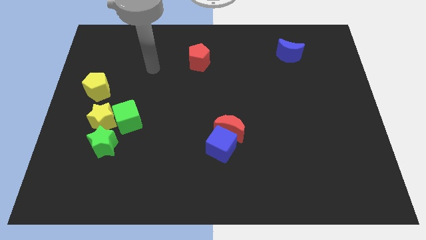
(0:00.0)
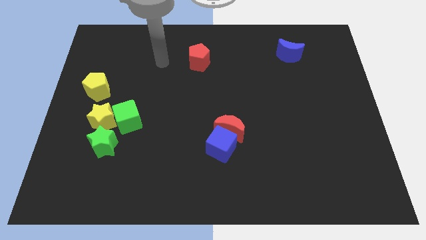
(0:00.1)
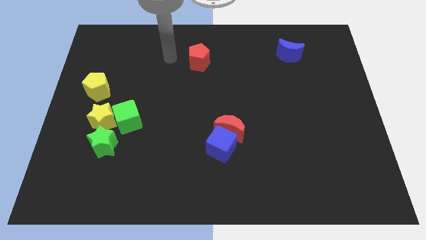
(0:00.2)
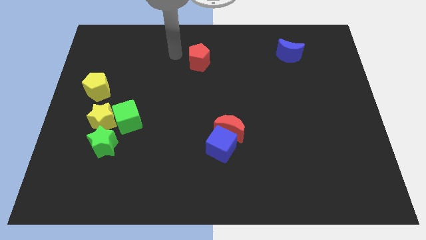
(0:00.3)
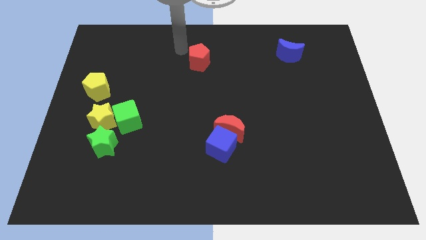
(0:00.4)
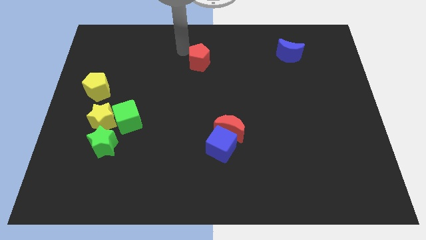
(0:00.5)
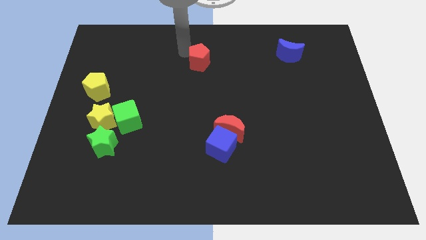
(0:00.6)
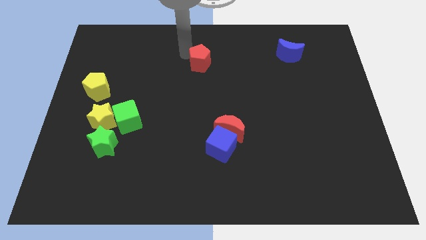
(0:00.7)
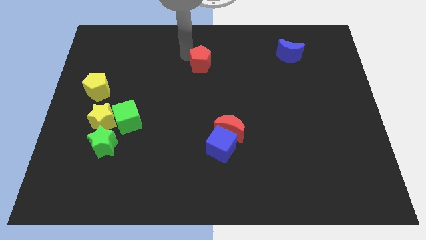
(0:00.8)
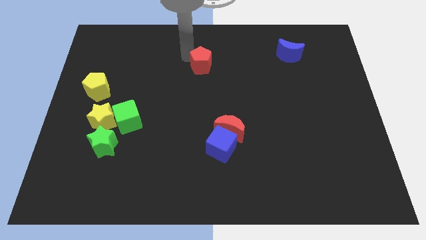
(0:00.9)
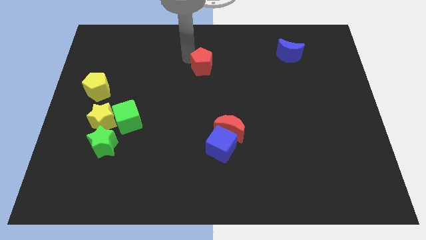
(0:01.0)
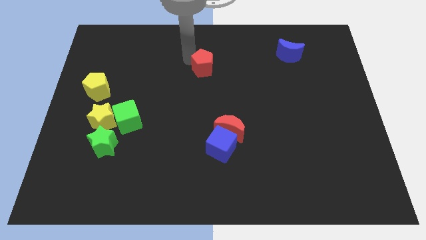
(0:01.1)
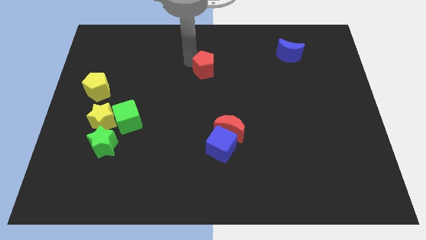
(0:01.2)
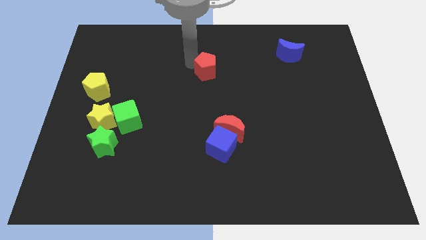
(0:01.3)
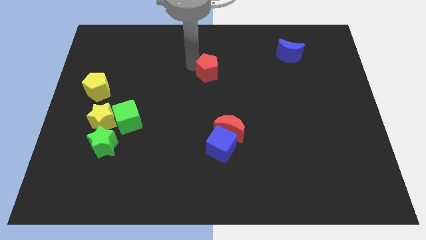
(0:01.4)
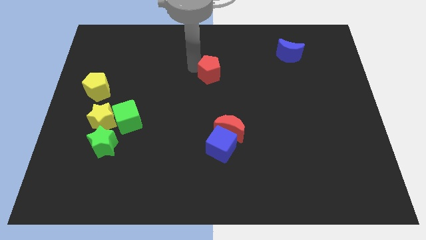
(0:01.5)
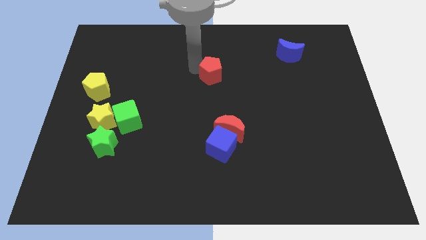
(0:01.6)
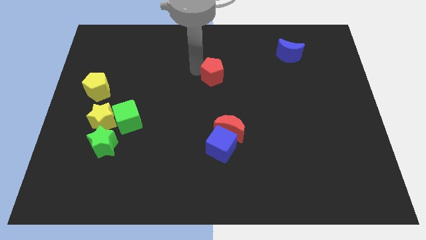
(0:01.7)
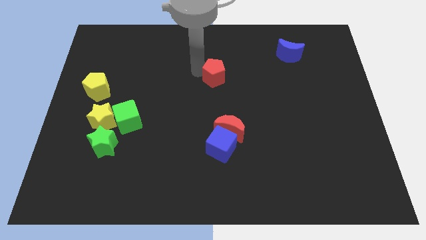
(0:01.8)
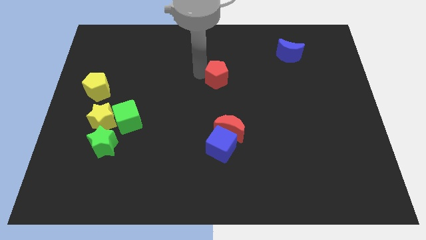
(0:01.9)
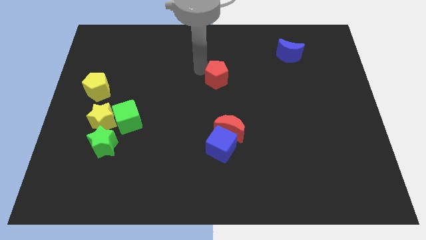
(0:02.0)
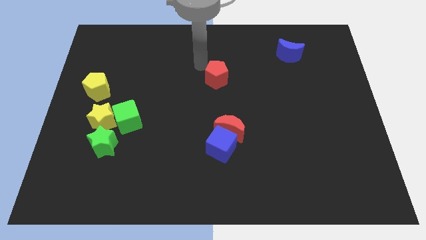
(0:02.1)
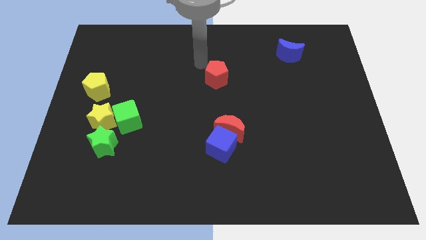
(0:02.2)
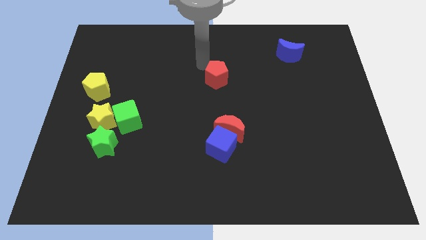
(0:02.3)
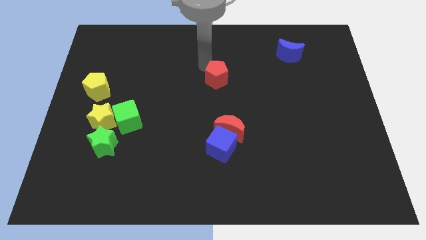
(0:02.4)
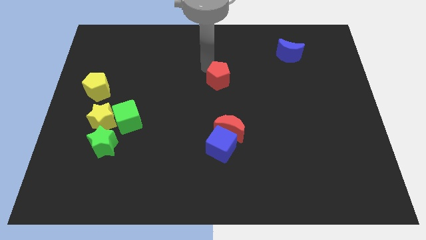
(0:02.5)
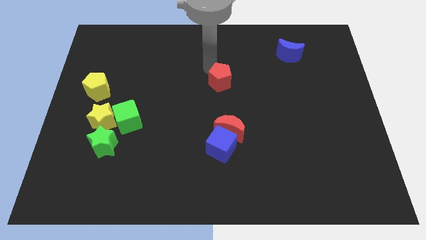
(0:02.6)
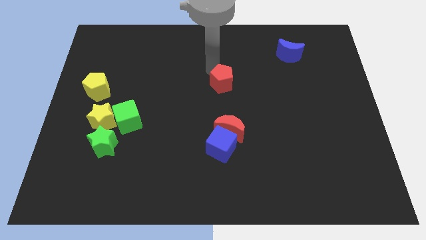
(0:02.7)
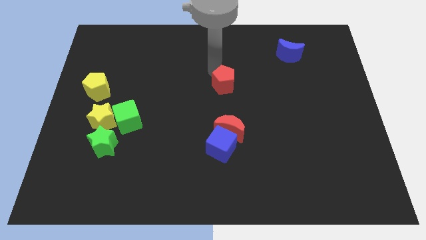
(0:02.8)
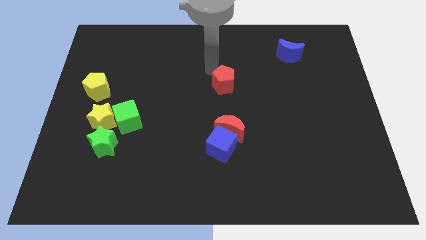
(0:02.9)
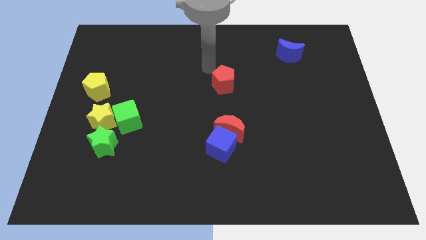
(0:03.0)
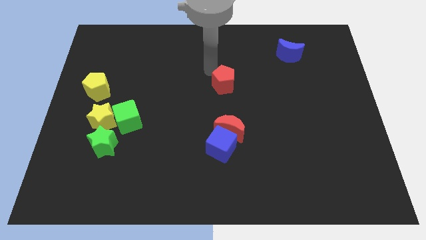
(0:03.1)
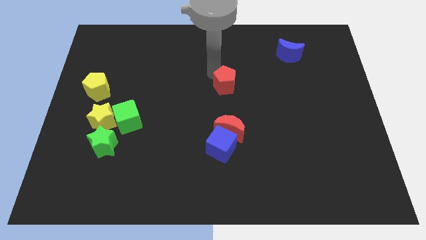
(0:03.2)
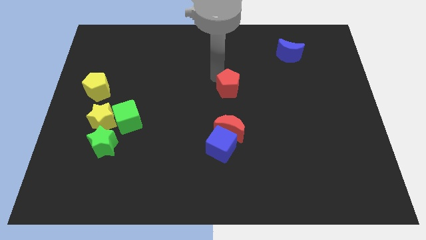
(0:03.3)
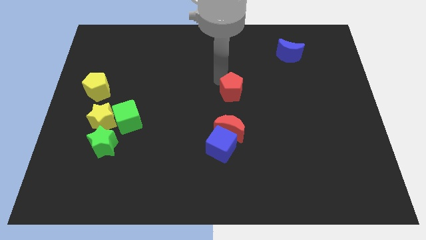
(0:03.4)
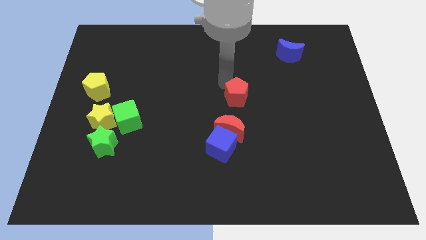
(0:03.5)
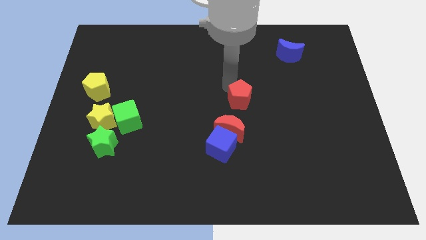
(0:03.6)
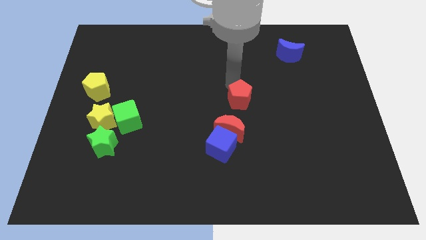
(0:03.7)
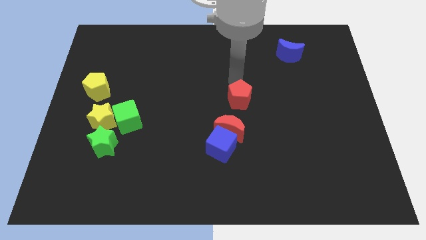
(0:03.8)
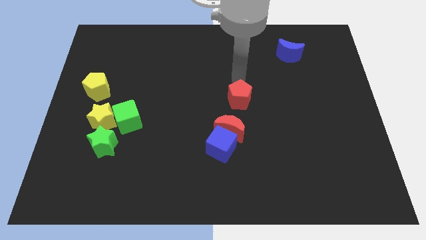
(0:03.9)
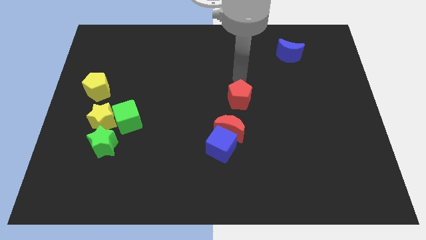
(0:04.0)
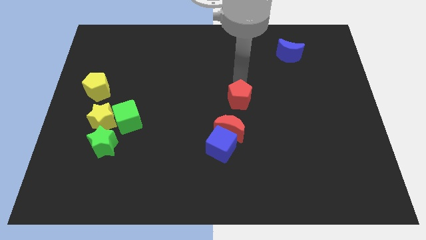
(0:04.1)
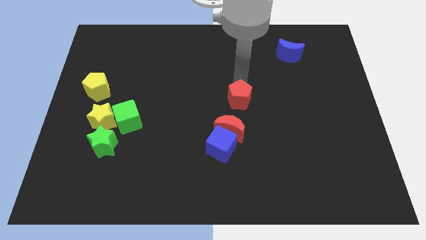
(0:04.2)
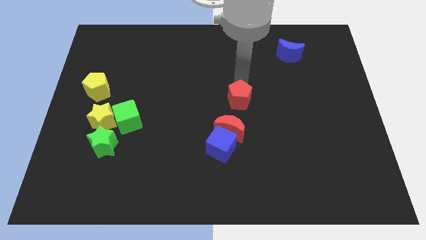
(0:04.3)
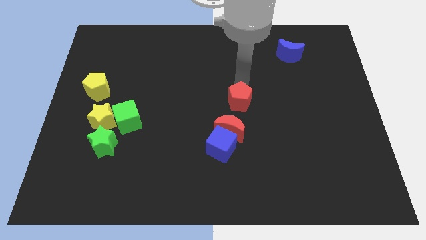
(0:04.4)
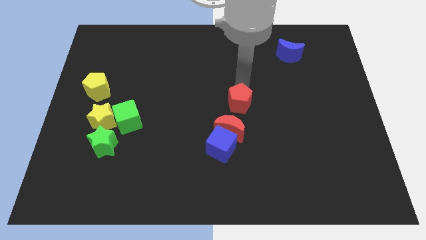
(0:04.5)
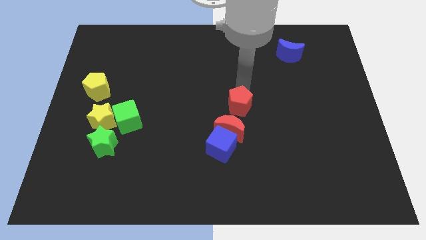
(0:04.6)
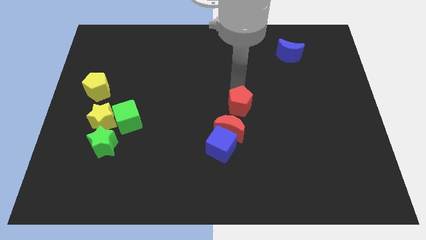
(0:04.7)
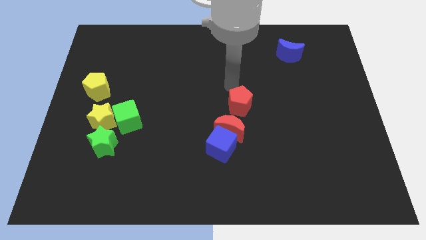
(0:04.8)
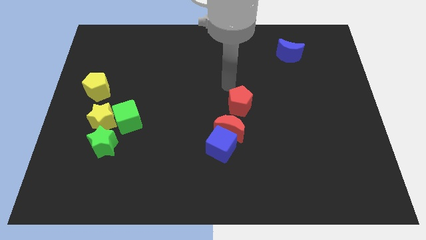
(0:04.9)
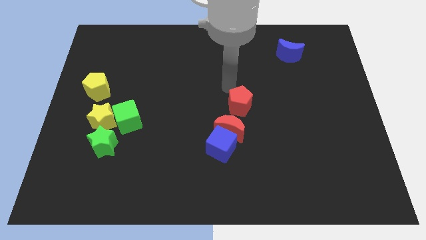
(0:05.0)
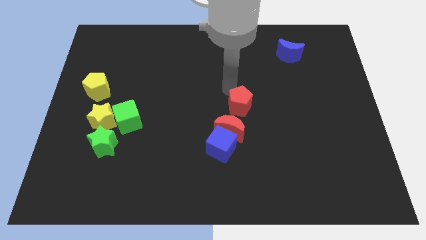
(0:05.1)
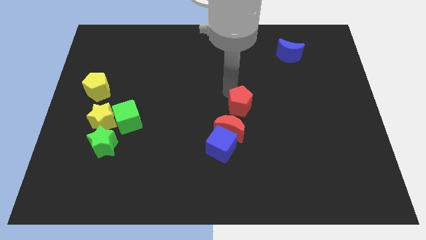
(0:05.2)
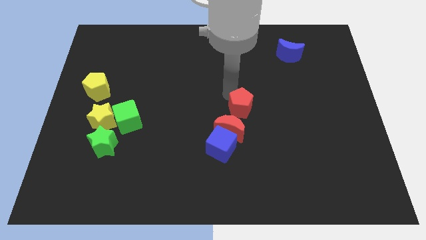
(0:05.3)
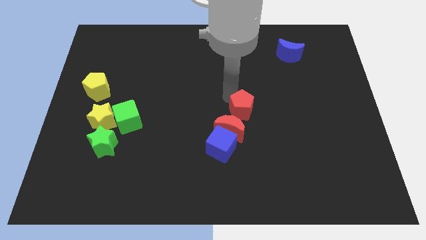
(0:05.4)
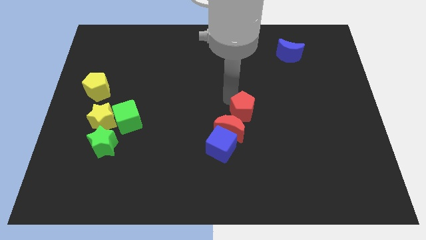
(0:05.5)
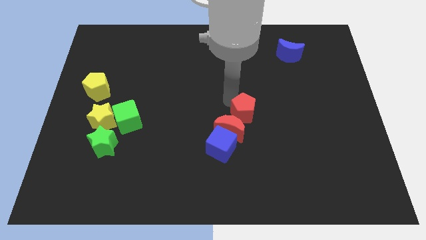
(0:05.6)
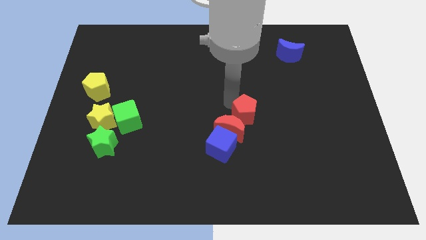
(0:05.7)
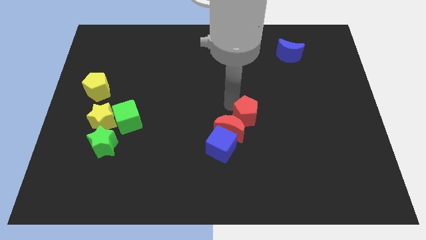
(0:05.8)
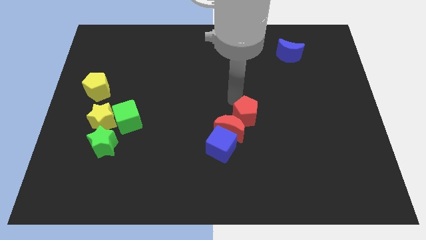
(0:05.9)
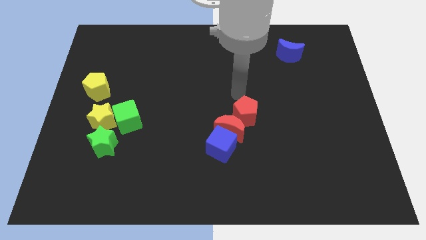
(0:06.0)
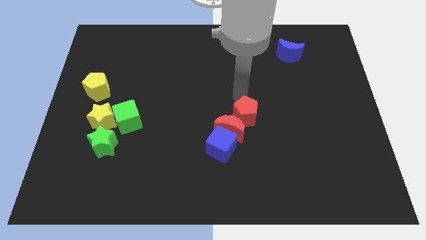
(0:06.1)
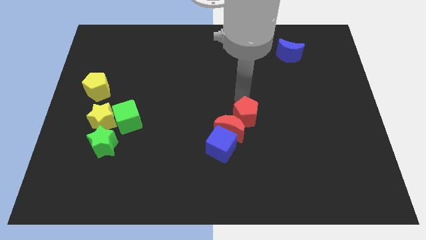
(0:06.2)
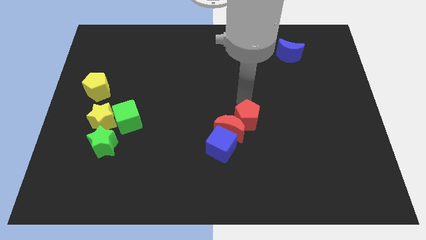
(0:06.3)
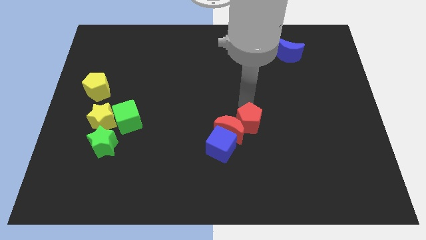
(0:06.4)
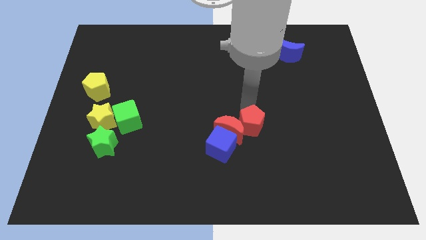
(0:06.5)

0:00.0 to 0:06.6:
slide the red pentagon to the bottom right side of the red moon

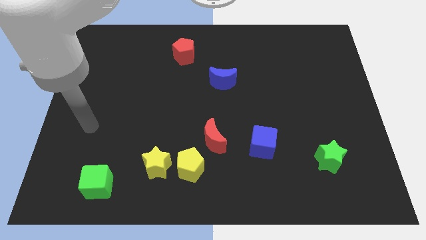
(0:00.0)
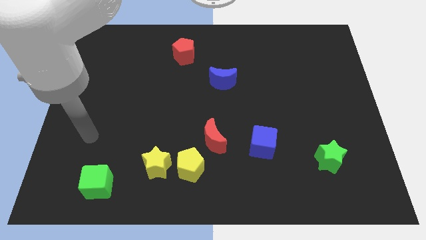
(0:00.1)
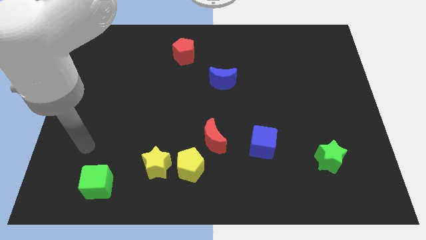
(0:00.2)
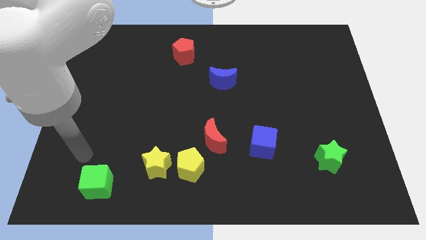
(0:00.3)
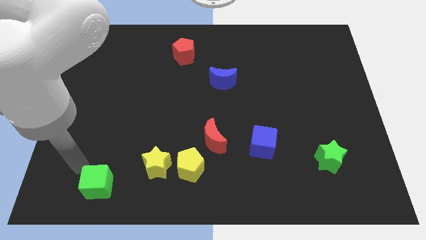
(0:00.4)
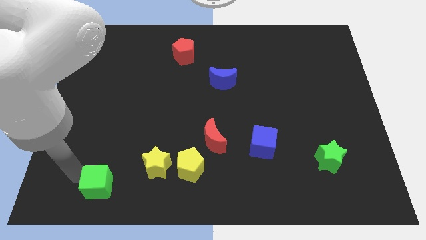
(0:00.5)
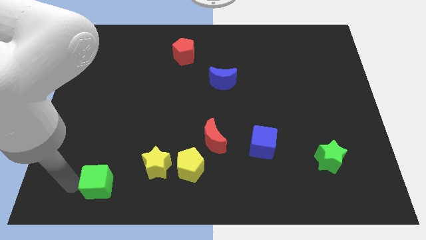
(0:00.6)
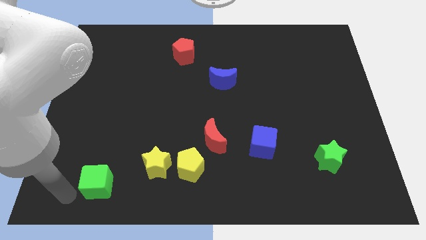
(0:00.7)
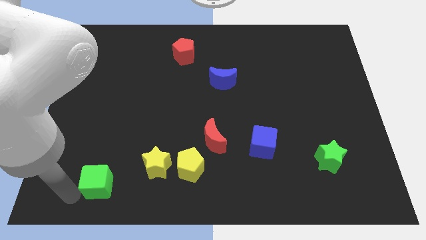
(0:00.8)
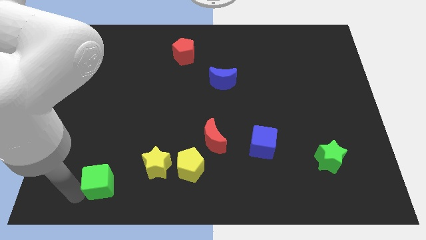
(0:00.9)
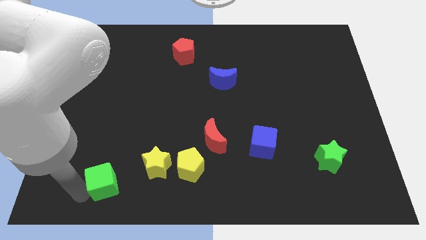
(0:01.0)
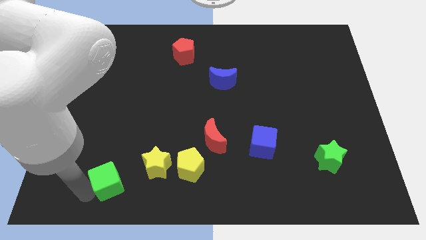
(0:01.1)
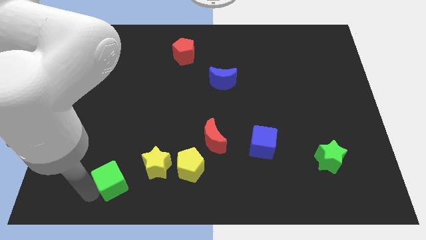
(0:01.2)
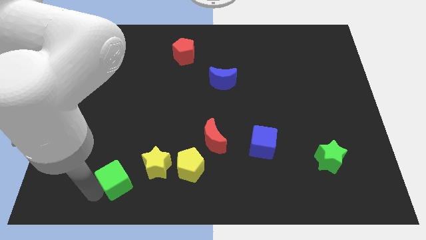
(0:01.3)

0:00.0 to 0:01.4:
put the green cube to the left of the yellow pentagon

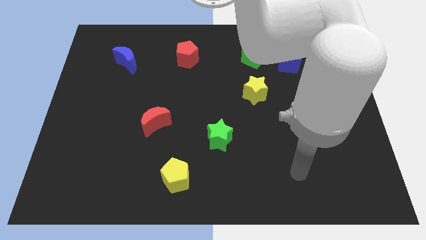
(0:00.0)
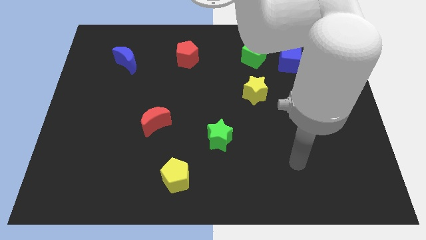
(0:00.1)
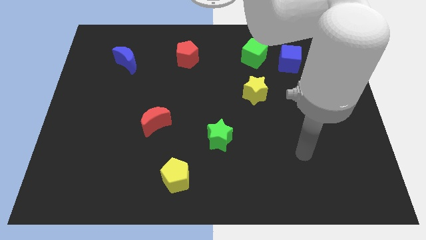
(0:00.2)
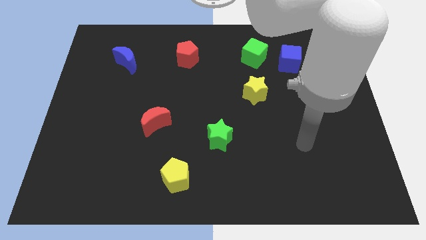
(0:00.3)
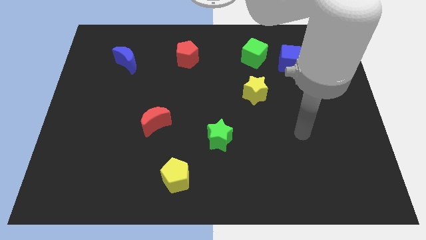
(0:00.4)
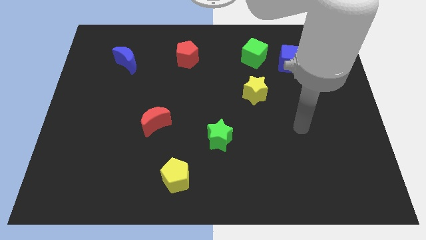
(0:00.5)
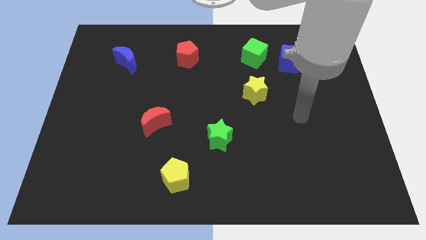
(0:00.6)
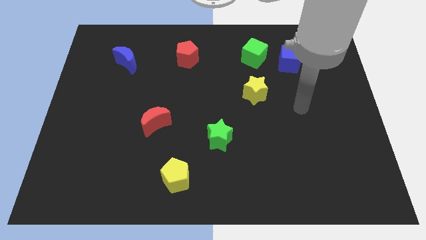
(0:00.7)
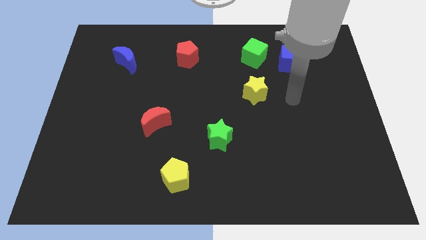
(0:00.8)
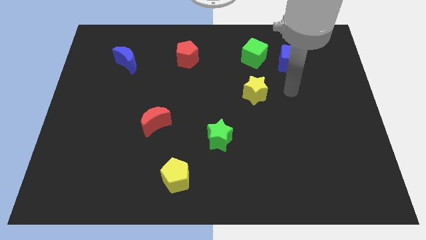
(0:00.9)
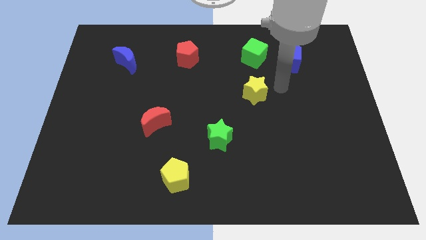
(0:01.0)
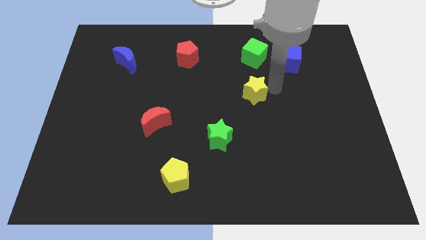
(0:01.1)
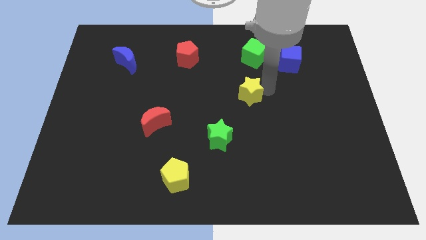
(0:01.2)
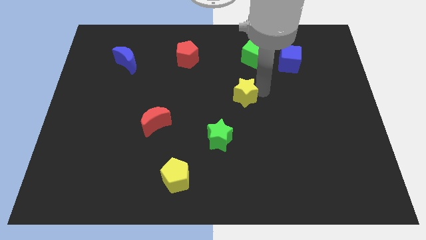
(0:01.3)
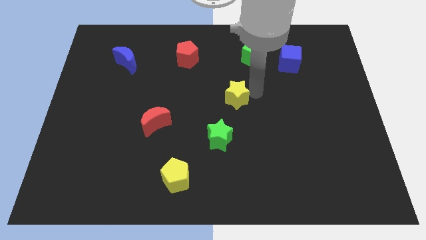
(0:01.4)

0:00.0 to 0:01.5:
push the yellow star to the top of the green star
